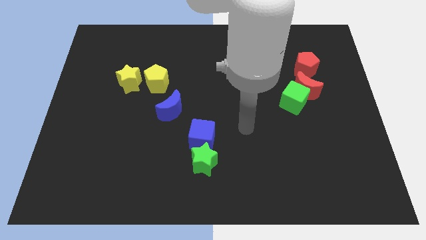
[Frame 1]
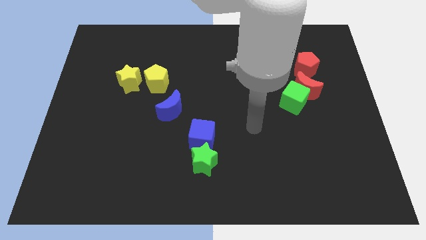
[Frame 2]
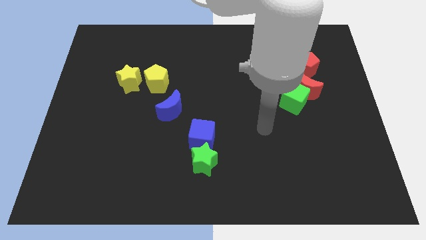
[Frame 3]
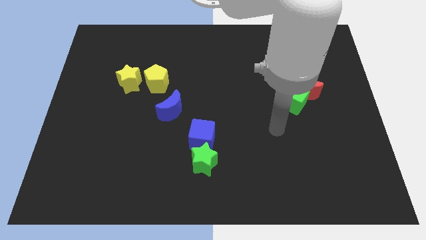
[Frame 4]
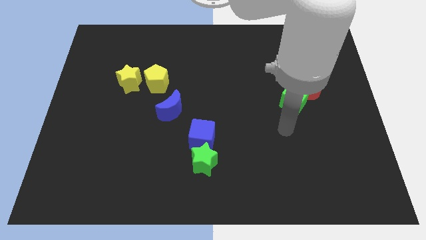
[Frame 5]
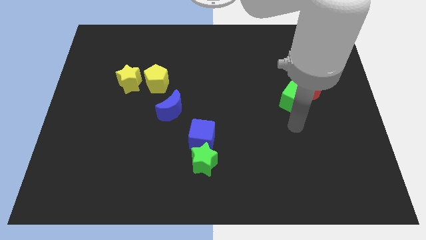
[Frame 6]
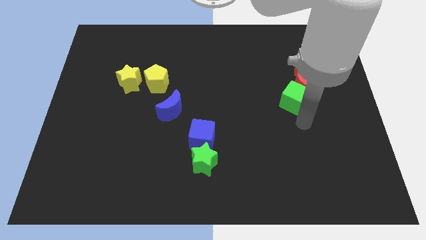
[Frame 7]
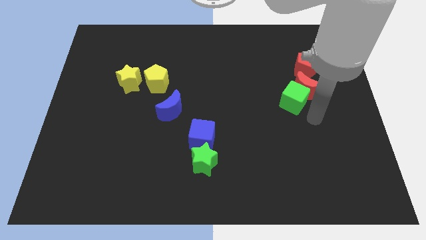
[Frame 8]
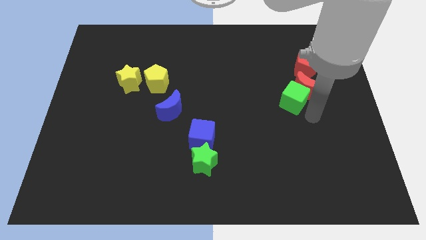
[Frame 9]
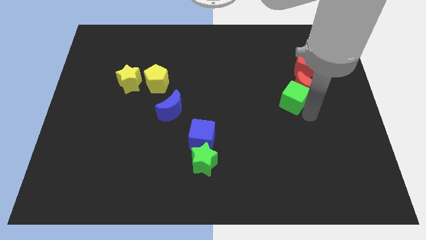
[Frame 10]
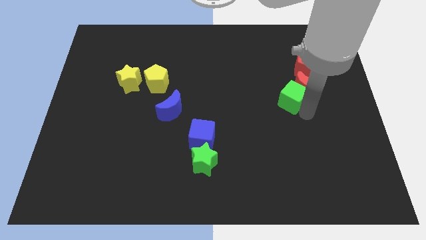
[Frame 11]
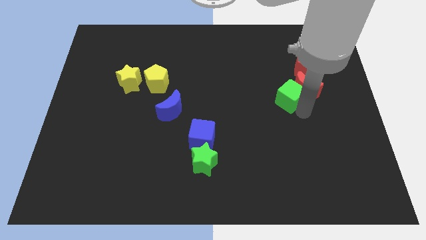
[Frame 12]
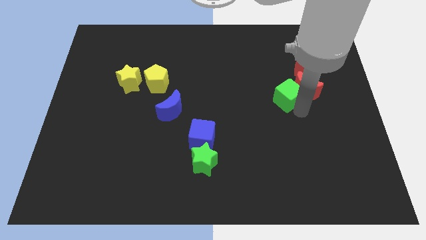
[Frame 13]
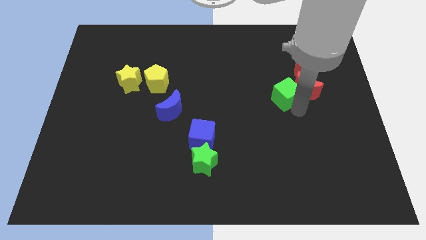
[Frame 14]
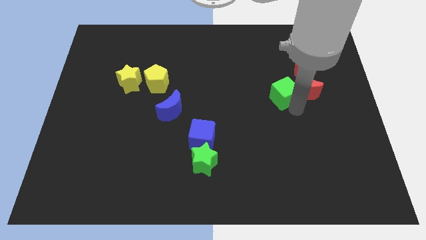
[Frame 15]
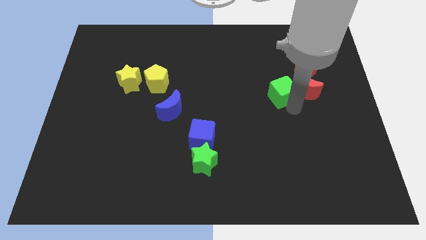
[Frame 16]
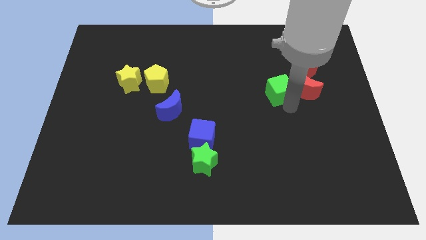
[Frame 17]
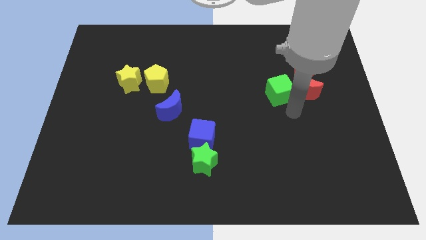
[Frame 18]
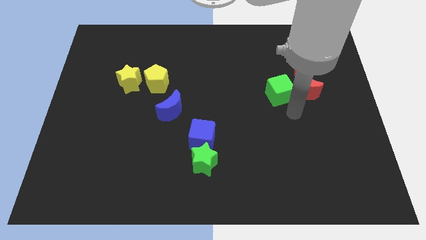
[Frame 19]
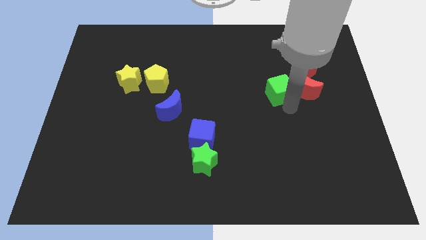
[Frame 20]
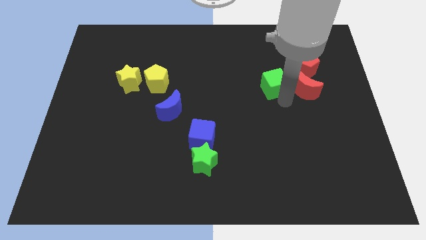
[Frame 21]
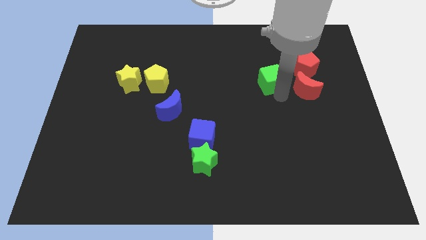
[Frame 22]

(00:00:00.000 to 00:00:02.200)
slide the green cube a little bit upwards and then left

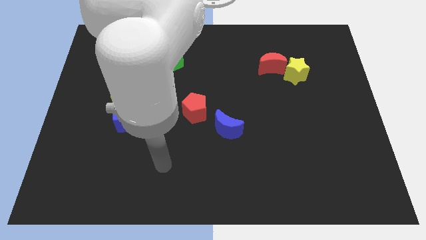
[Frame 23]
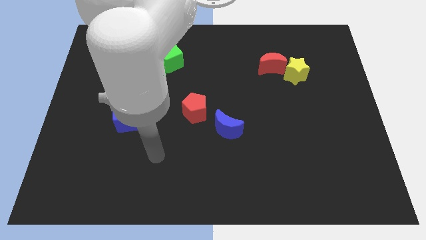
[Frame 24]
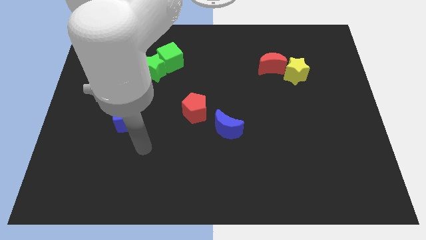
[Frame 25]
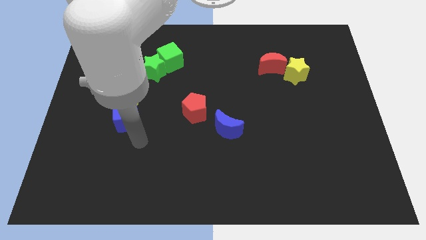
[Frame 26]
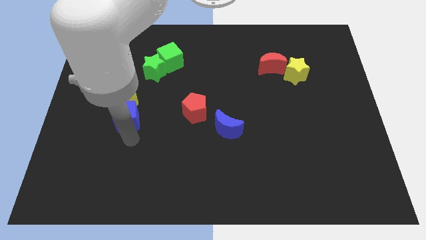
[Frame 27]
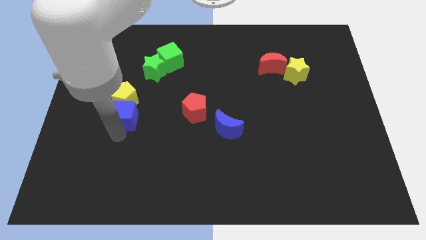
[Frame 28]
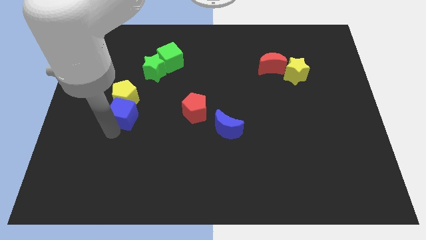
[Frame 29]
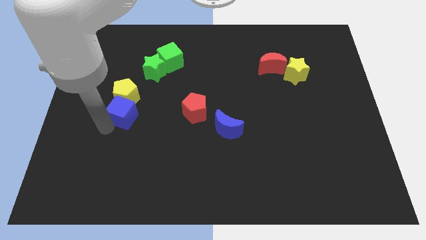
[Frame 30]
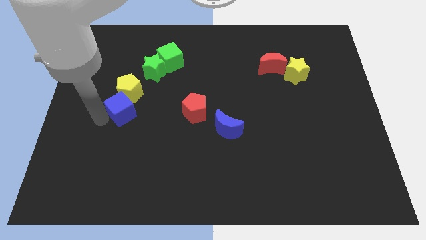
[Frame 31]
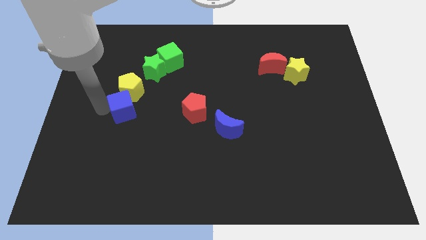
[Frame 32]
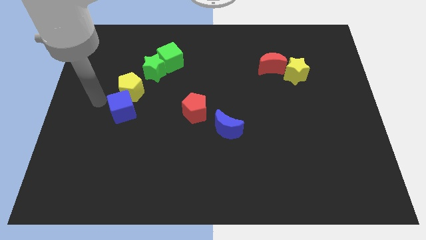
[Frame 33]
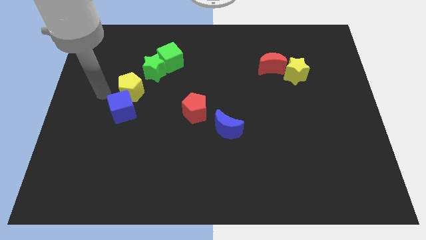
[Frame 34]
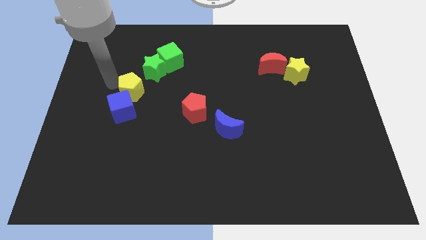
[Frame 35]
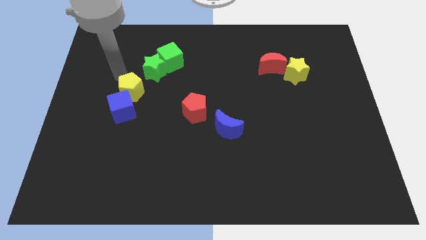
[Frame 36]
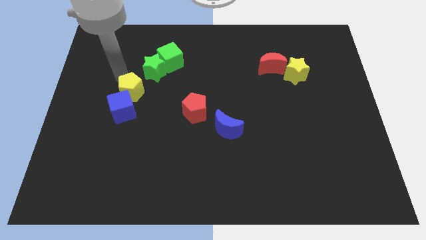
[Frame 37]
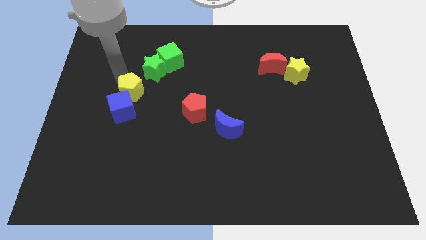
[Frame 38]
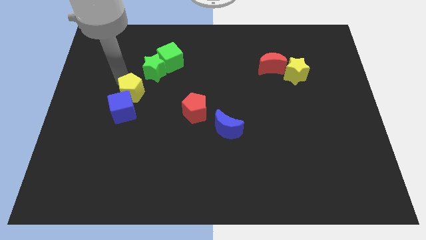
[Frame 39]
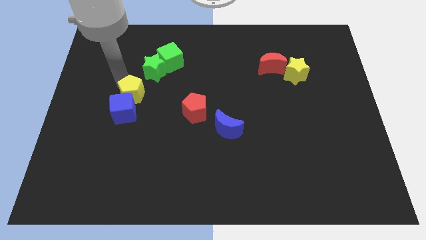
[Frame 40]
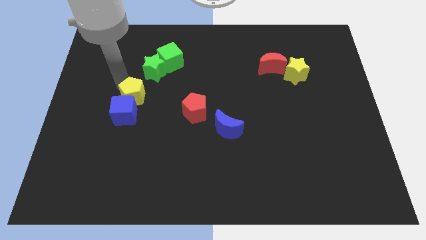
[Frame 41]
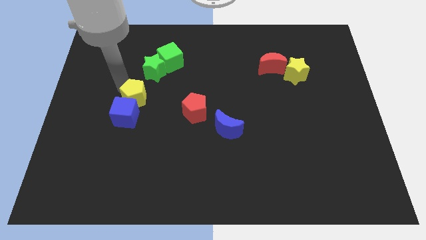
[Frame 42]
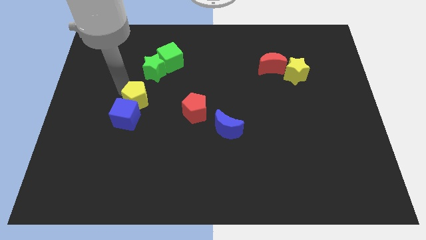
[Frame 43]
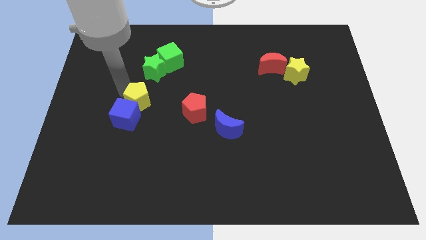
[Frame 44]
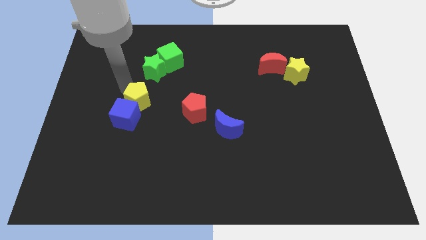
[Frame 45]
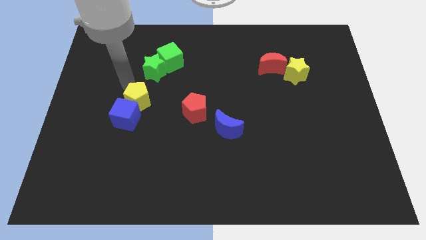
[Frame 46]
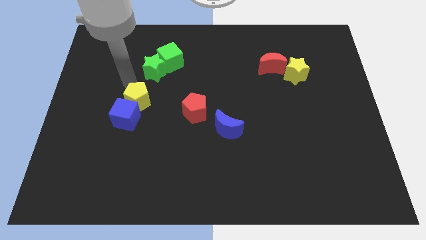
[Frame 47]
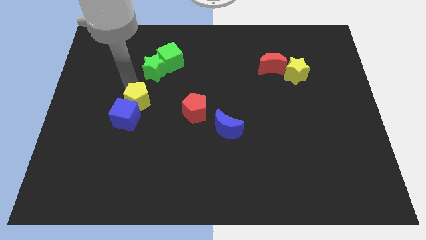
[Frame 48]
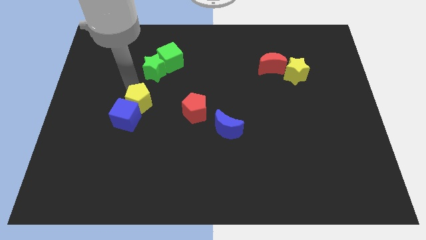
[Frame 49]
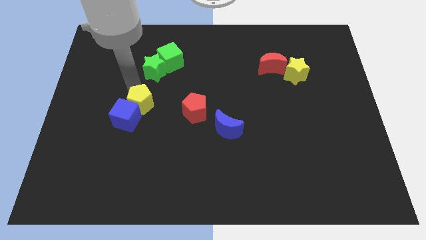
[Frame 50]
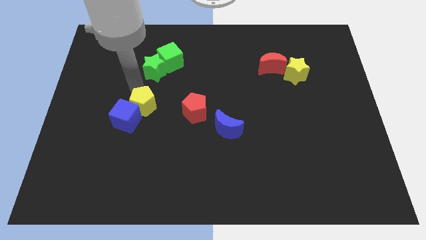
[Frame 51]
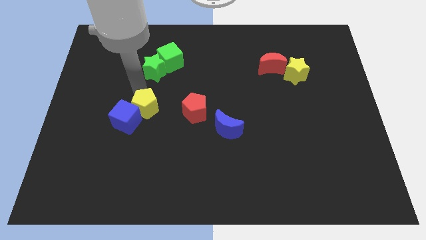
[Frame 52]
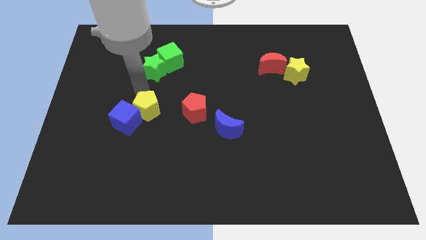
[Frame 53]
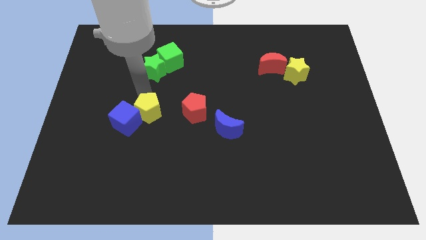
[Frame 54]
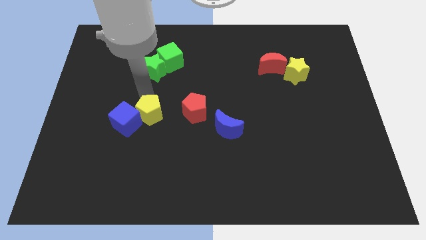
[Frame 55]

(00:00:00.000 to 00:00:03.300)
slightly move the yellow pentagon down and then right

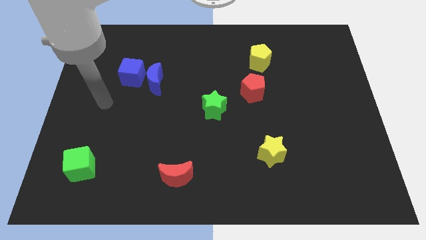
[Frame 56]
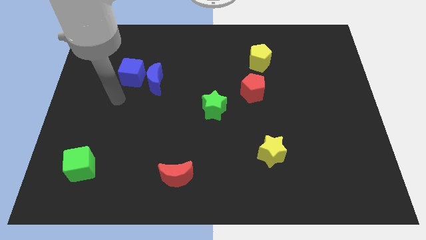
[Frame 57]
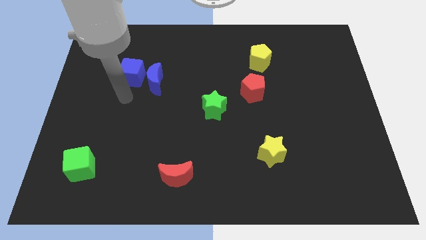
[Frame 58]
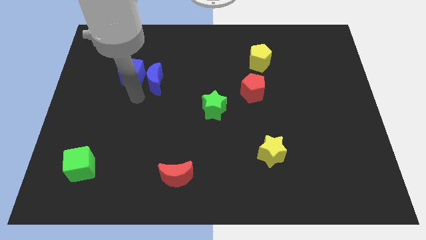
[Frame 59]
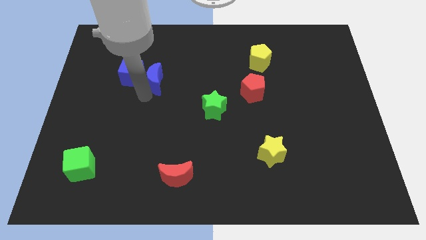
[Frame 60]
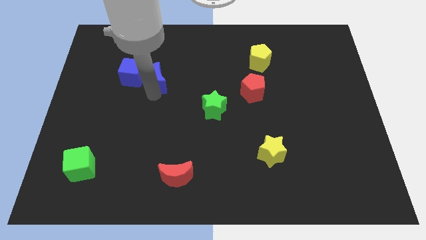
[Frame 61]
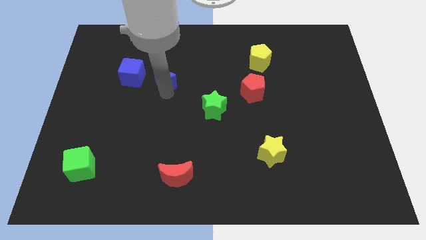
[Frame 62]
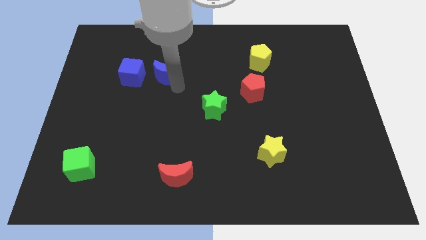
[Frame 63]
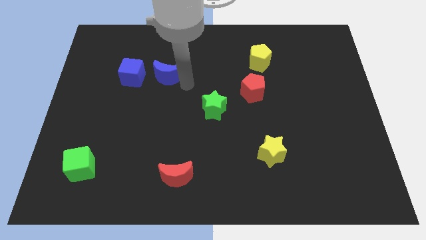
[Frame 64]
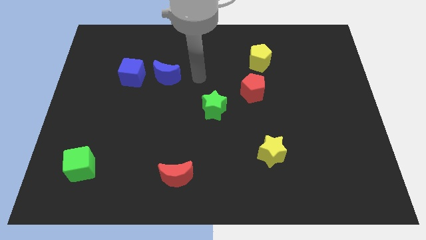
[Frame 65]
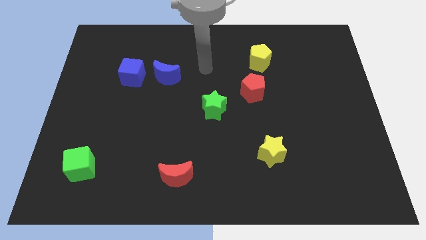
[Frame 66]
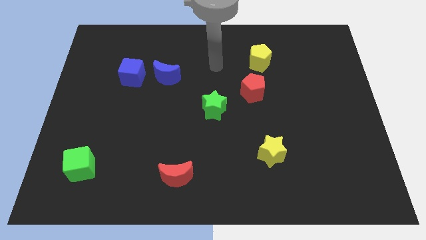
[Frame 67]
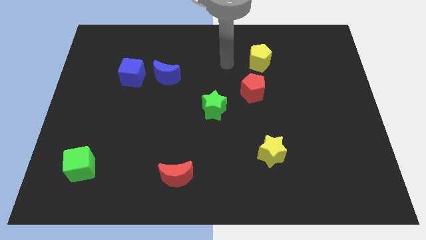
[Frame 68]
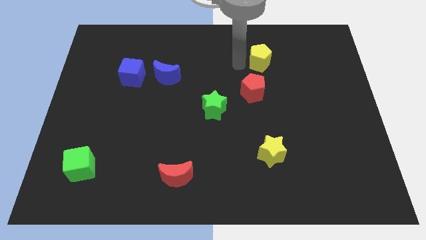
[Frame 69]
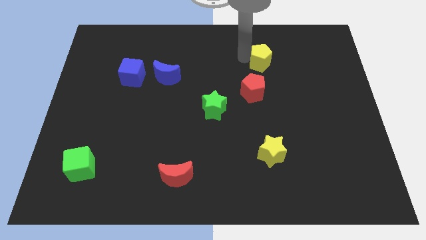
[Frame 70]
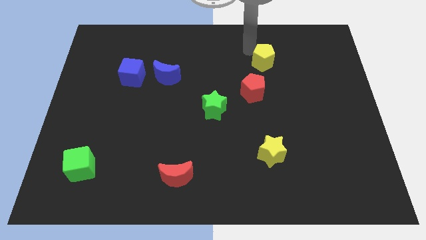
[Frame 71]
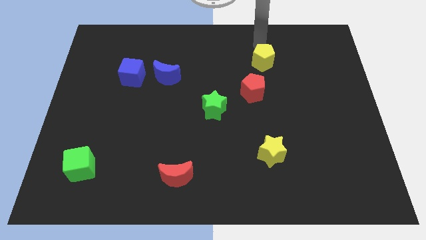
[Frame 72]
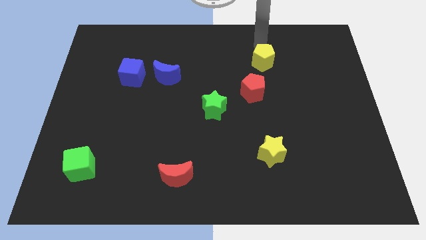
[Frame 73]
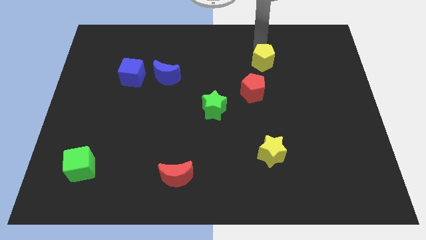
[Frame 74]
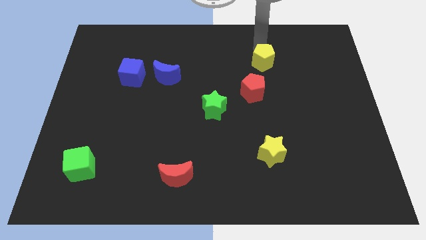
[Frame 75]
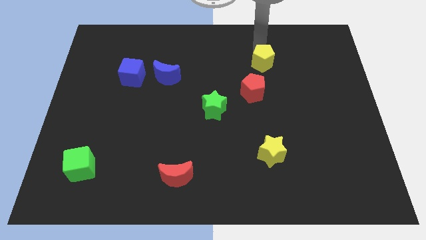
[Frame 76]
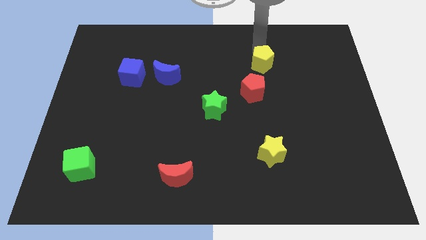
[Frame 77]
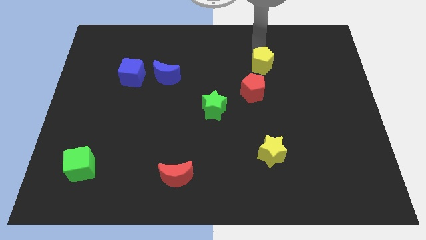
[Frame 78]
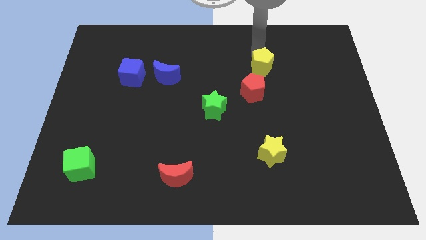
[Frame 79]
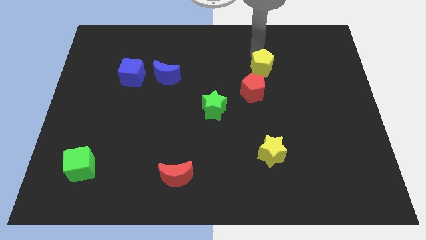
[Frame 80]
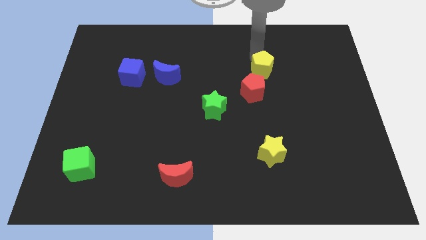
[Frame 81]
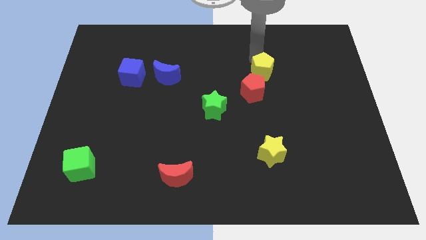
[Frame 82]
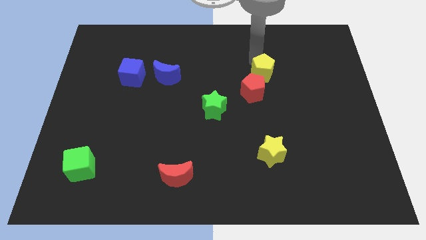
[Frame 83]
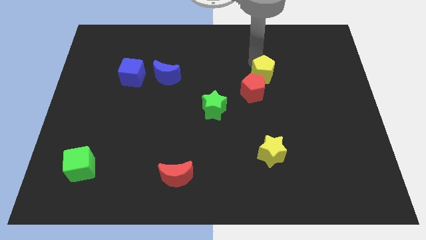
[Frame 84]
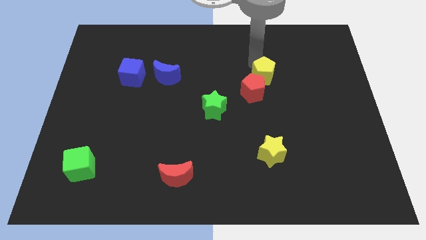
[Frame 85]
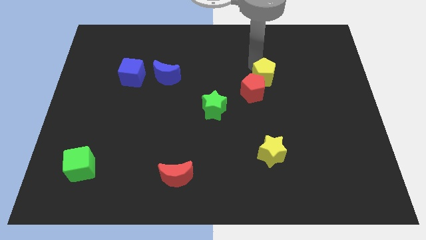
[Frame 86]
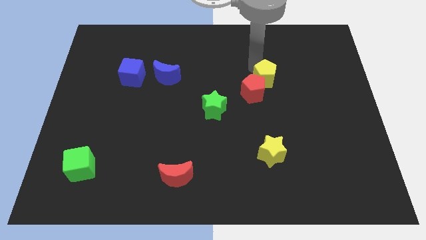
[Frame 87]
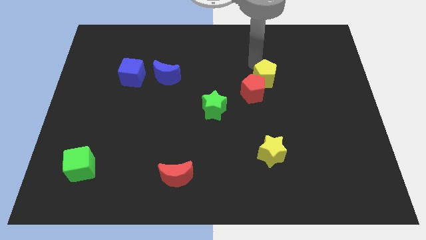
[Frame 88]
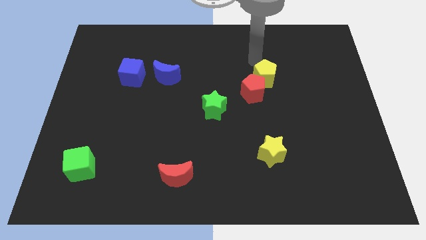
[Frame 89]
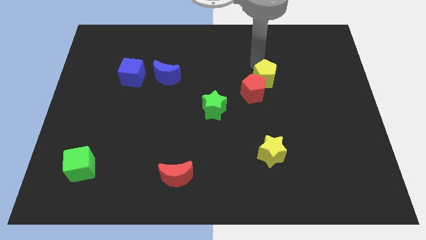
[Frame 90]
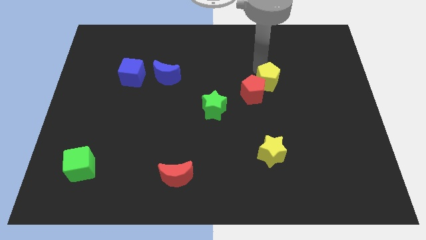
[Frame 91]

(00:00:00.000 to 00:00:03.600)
slightly move the yellow pentagon downwards
